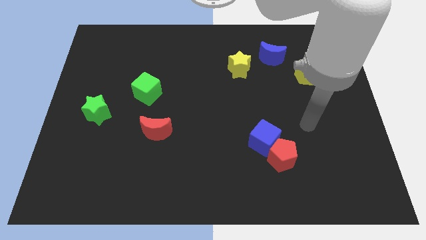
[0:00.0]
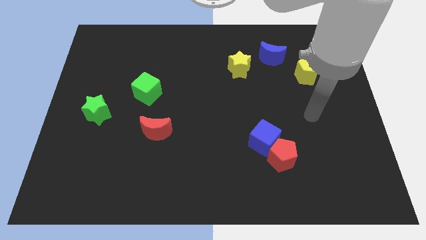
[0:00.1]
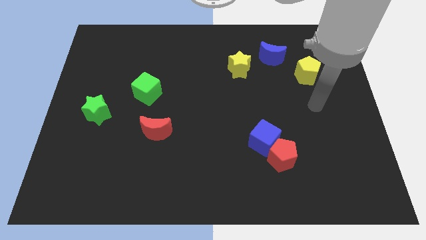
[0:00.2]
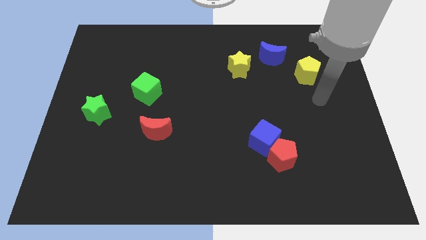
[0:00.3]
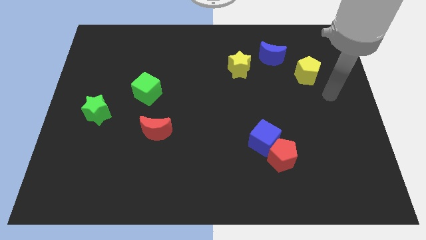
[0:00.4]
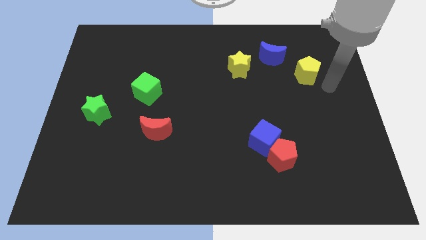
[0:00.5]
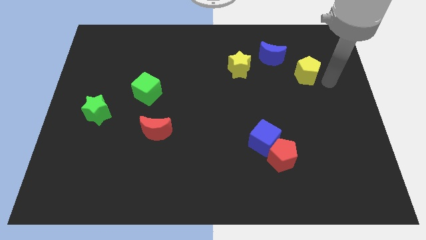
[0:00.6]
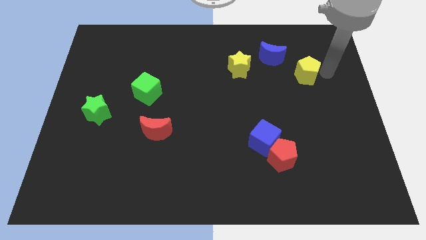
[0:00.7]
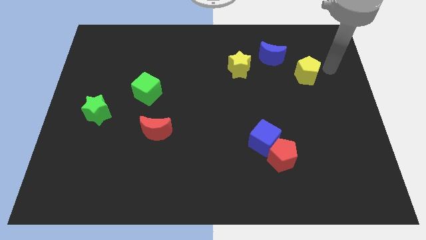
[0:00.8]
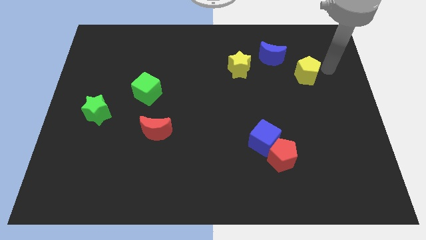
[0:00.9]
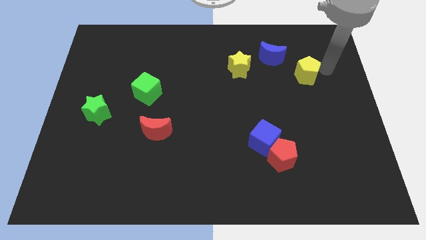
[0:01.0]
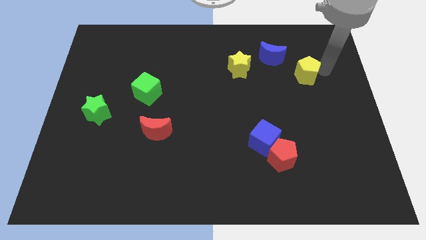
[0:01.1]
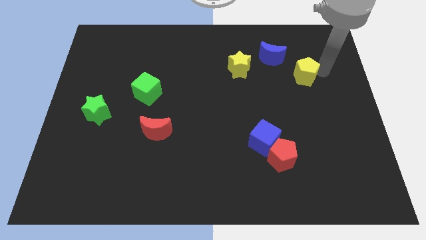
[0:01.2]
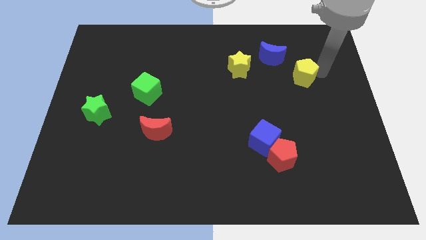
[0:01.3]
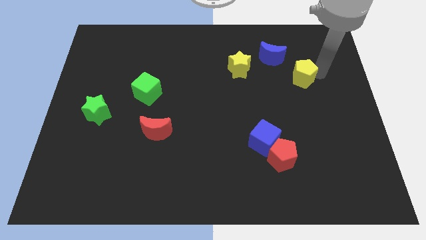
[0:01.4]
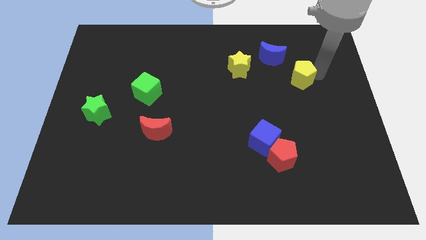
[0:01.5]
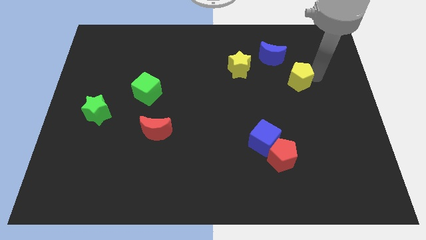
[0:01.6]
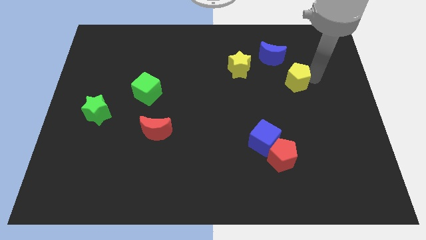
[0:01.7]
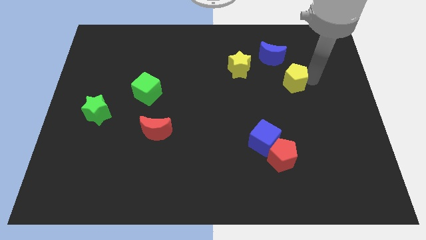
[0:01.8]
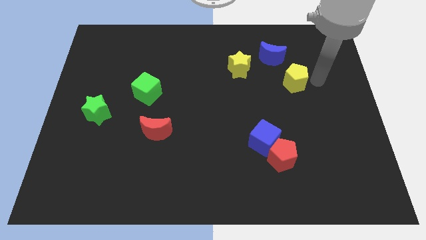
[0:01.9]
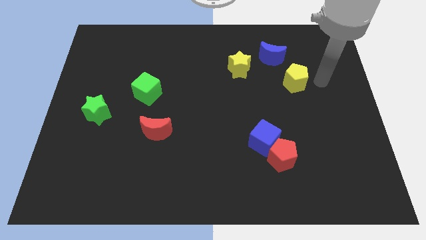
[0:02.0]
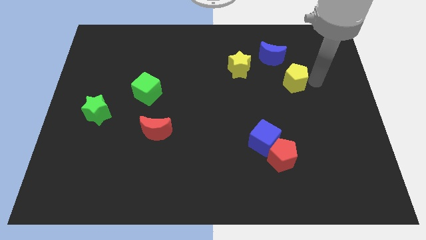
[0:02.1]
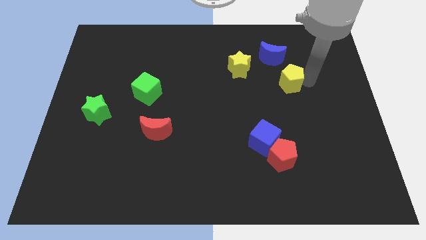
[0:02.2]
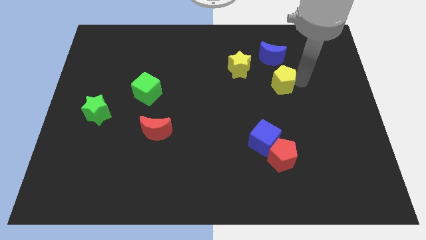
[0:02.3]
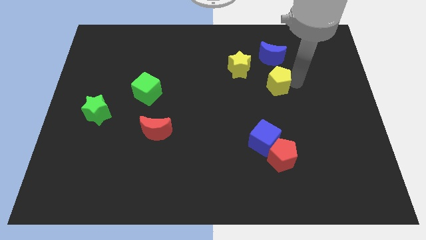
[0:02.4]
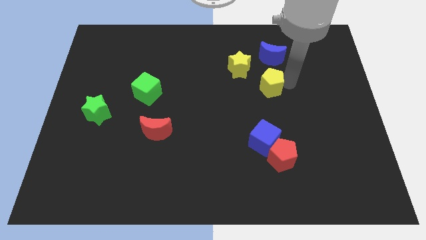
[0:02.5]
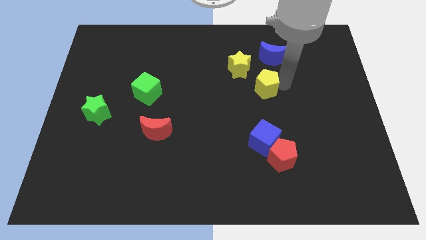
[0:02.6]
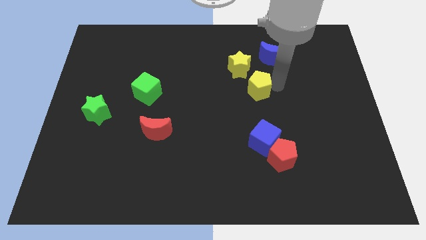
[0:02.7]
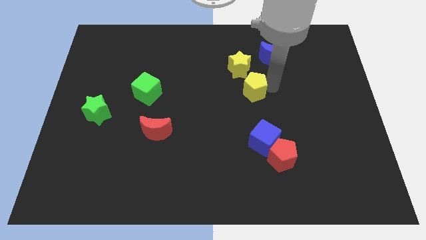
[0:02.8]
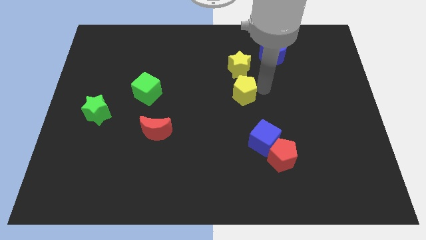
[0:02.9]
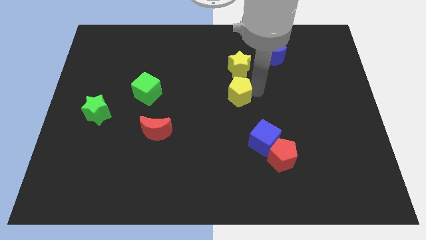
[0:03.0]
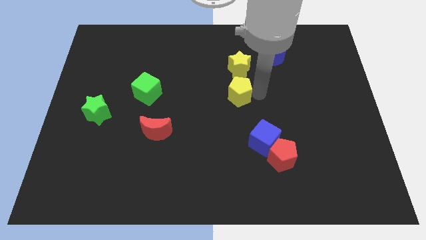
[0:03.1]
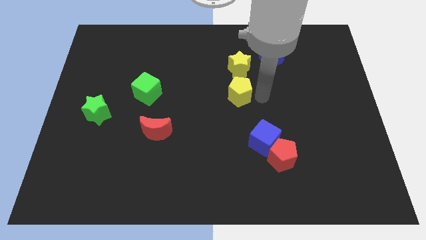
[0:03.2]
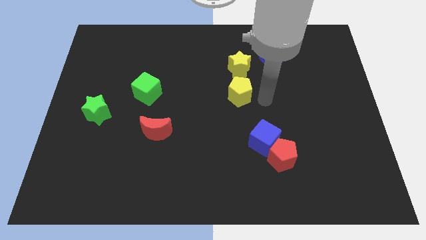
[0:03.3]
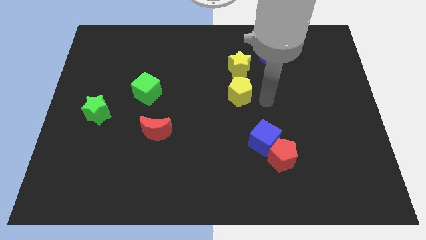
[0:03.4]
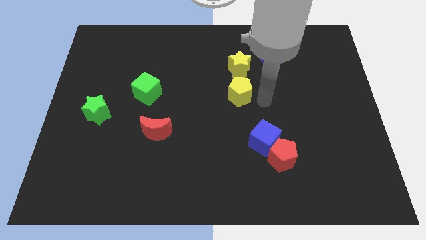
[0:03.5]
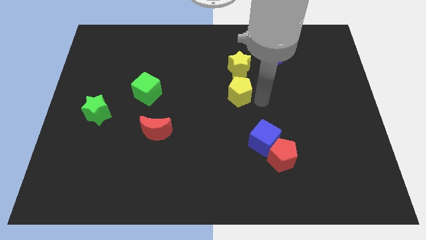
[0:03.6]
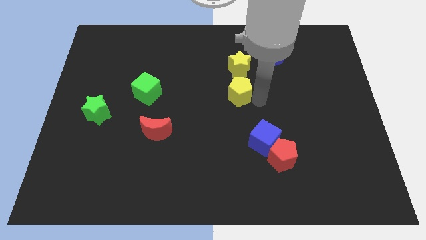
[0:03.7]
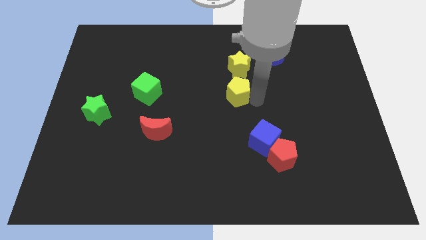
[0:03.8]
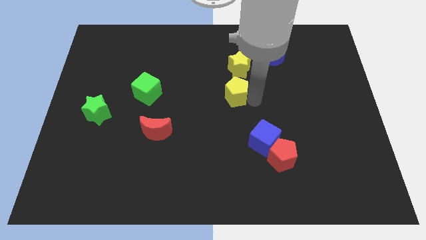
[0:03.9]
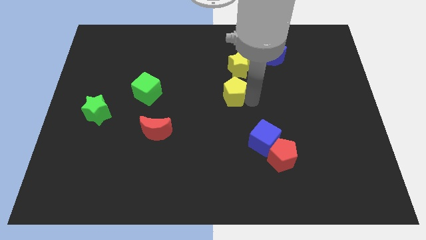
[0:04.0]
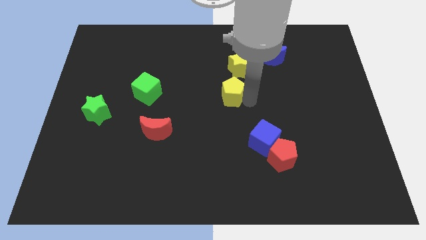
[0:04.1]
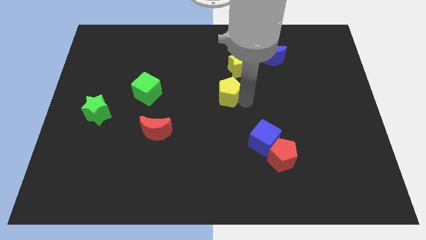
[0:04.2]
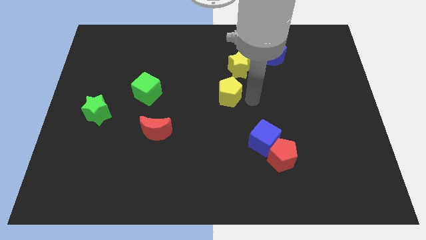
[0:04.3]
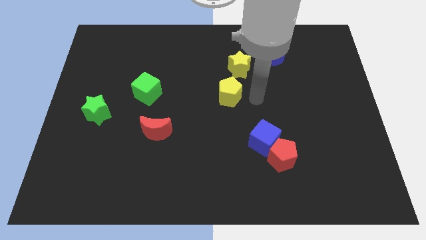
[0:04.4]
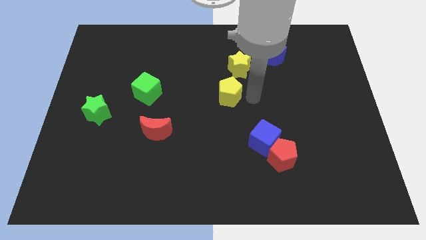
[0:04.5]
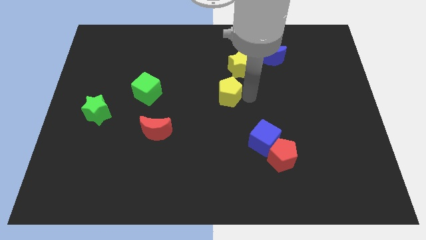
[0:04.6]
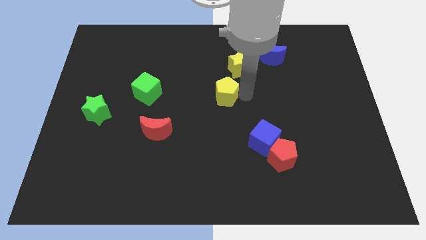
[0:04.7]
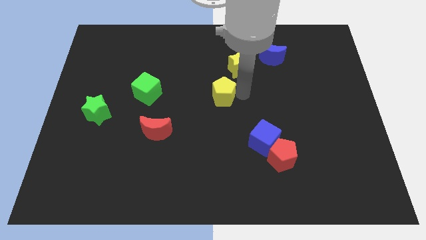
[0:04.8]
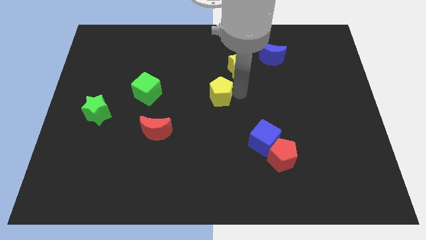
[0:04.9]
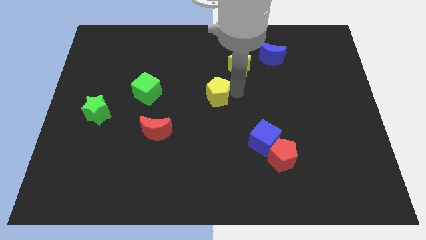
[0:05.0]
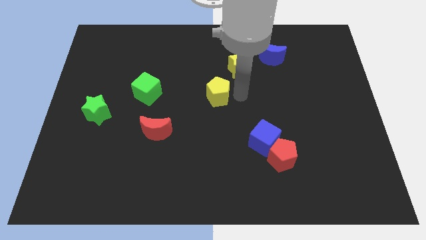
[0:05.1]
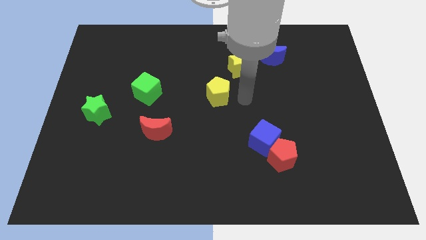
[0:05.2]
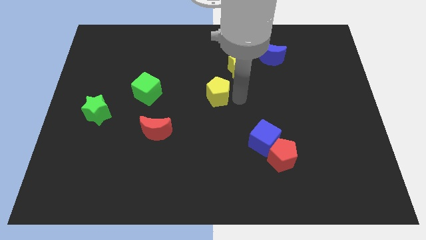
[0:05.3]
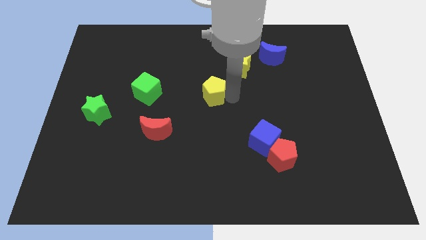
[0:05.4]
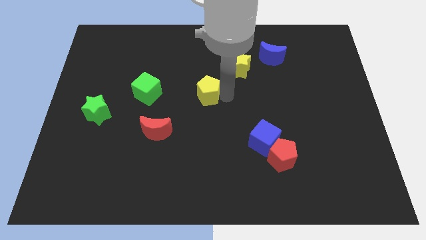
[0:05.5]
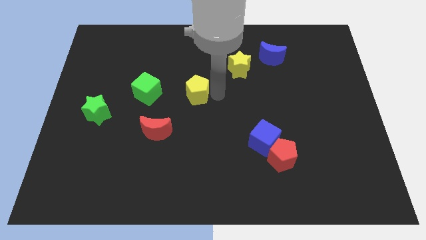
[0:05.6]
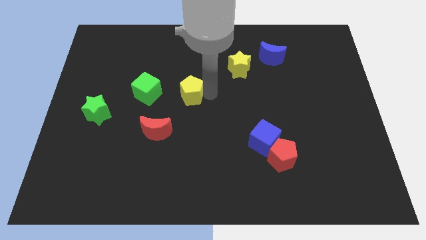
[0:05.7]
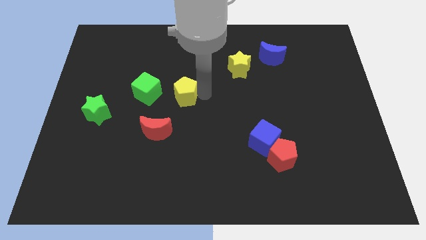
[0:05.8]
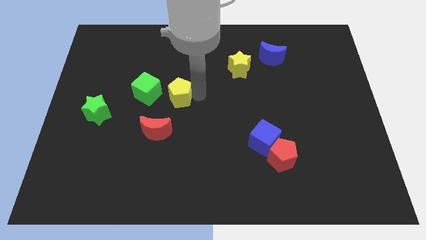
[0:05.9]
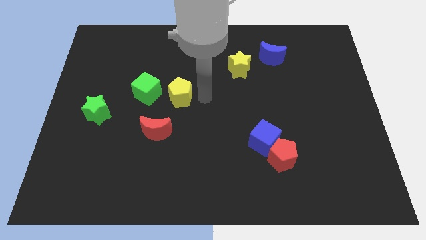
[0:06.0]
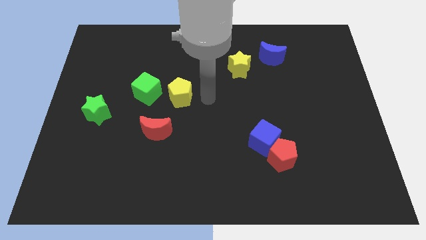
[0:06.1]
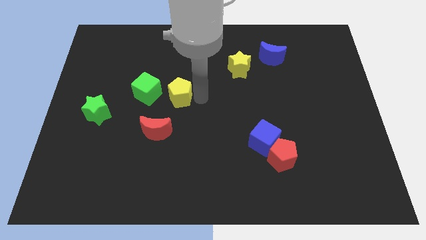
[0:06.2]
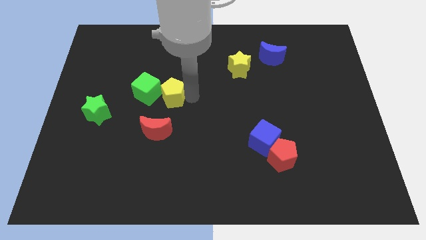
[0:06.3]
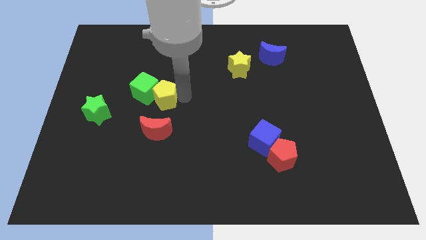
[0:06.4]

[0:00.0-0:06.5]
slide the yellow pentagon next to the green cube

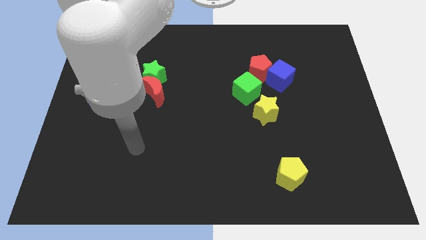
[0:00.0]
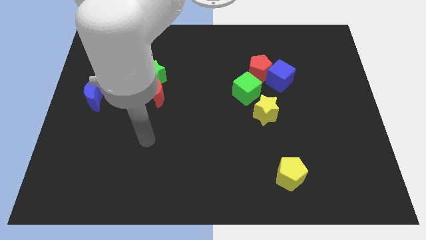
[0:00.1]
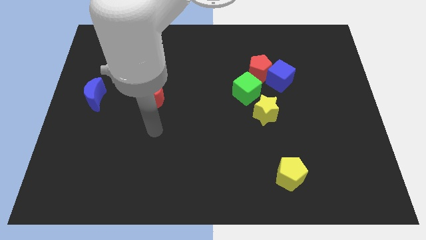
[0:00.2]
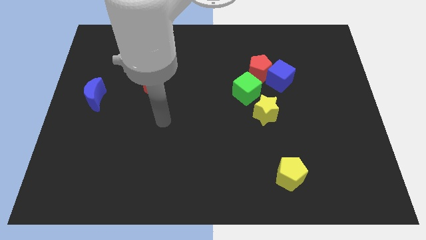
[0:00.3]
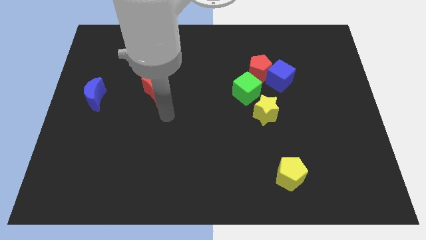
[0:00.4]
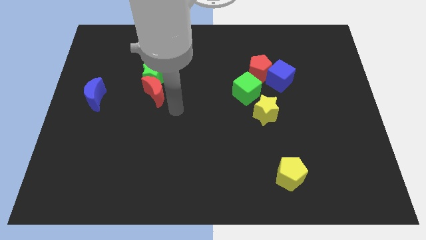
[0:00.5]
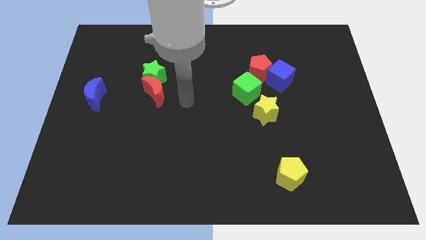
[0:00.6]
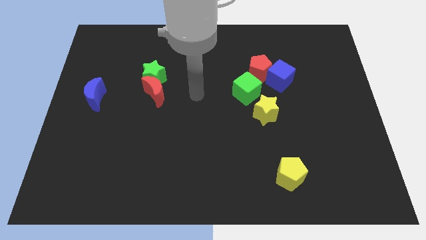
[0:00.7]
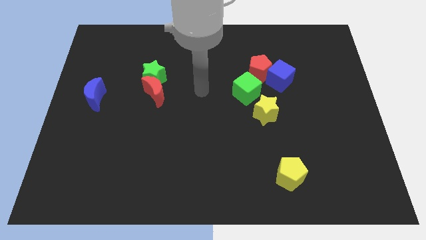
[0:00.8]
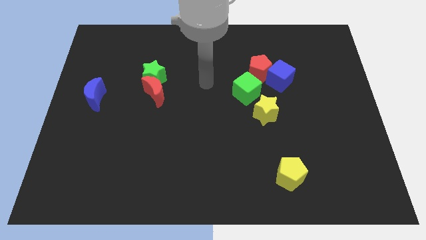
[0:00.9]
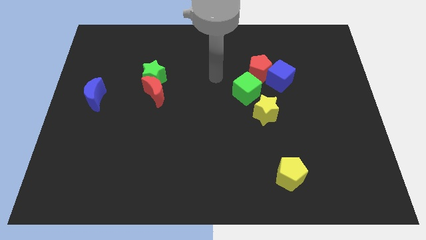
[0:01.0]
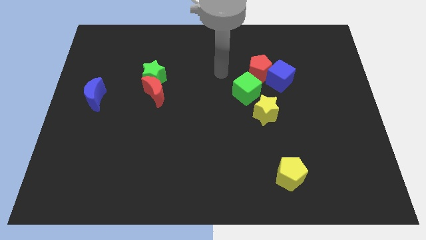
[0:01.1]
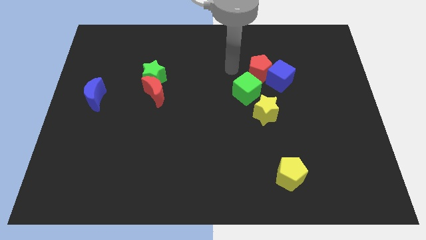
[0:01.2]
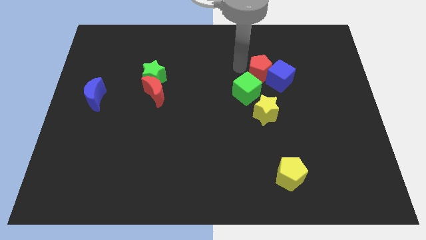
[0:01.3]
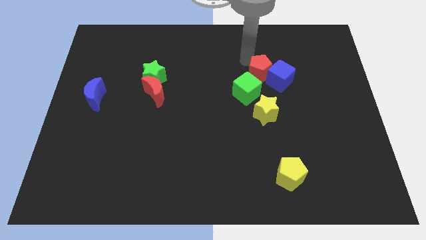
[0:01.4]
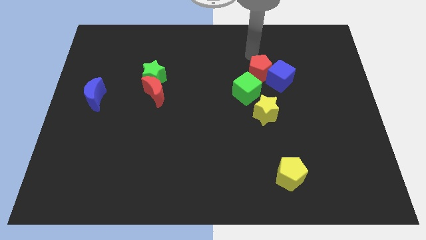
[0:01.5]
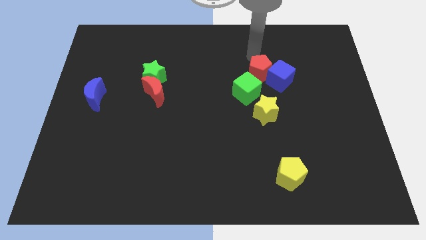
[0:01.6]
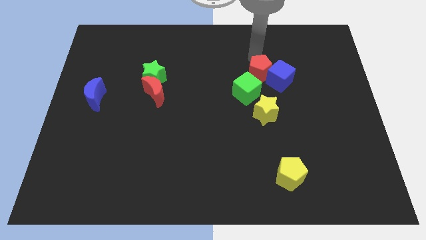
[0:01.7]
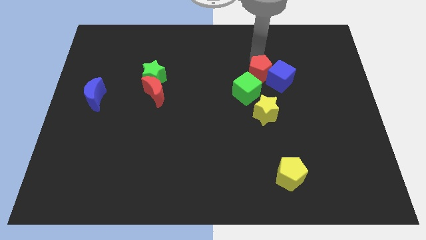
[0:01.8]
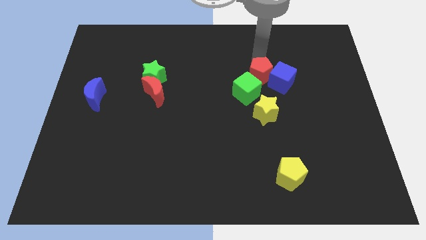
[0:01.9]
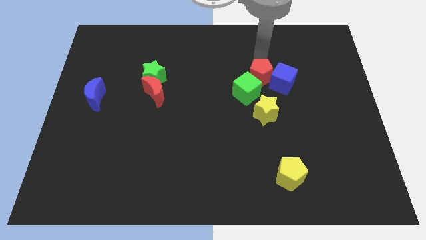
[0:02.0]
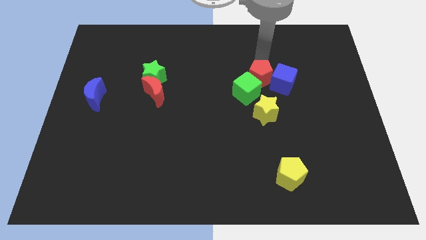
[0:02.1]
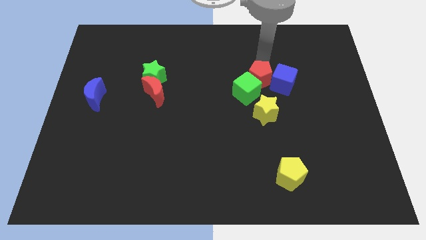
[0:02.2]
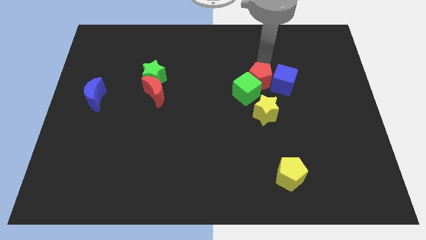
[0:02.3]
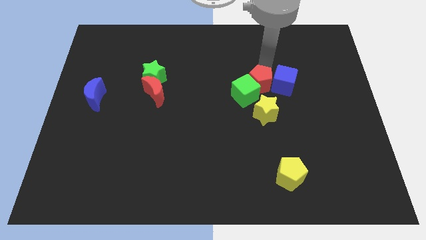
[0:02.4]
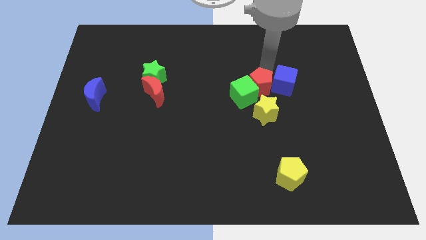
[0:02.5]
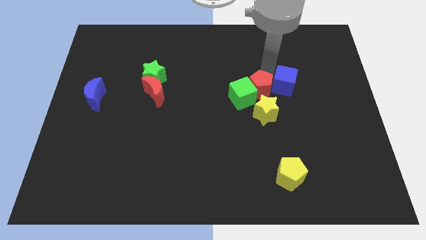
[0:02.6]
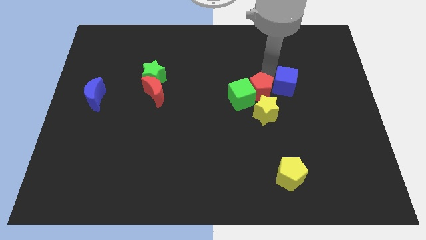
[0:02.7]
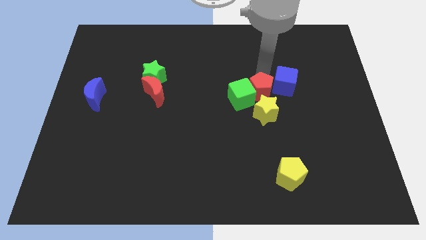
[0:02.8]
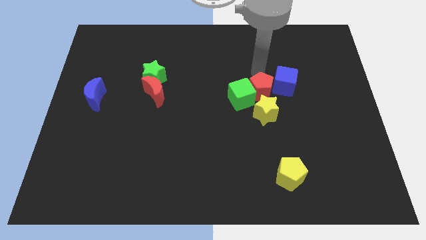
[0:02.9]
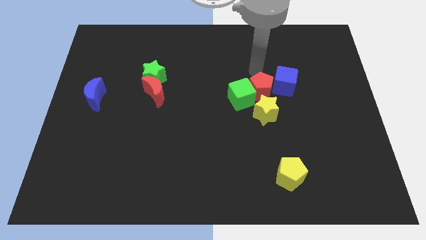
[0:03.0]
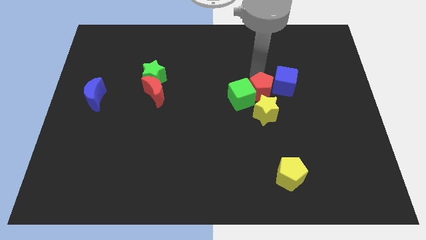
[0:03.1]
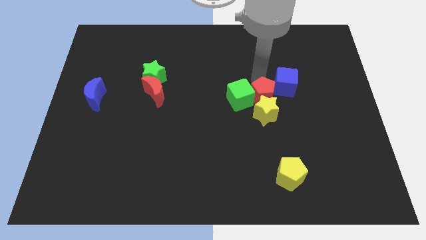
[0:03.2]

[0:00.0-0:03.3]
move the red pentagon towards the yellow star
